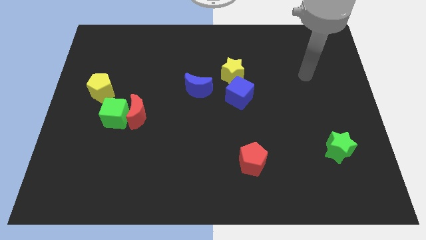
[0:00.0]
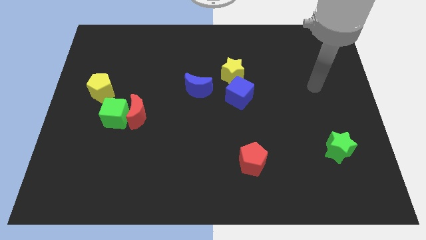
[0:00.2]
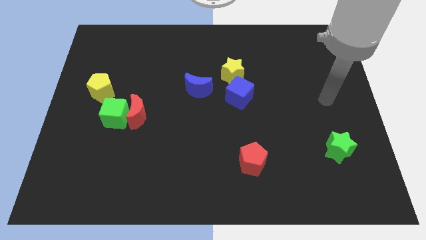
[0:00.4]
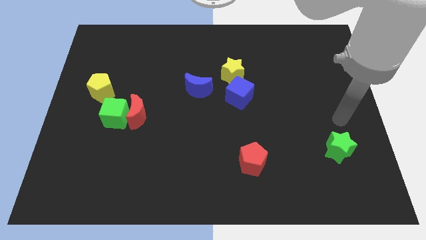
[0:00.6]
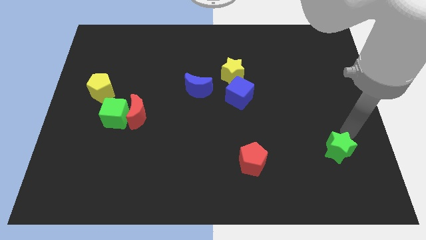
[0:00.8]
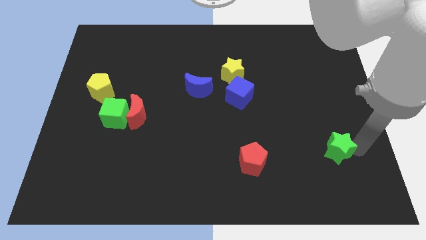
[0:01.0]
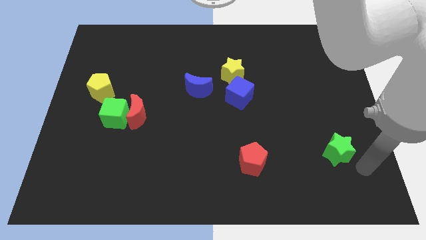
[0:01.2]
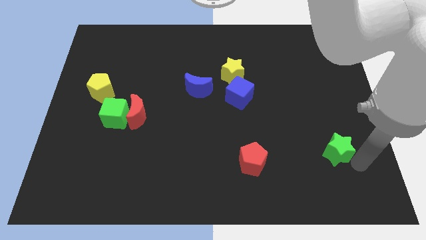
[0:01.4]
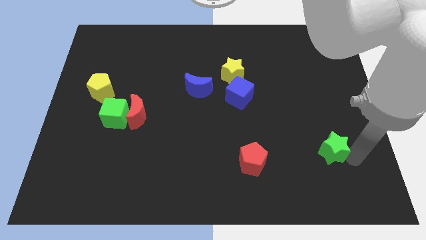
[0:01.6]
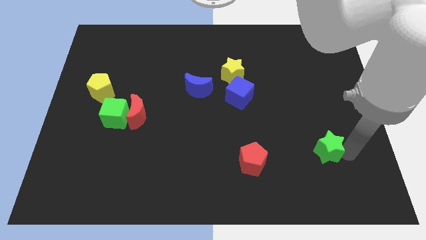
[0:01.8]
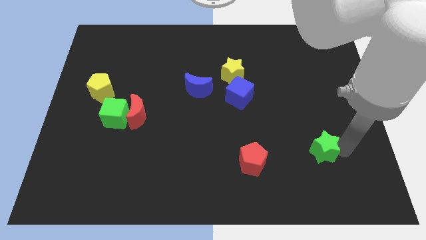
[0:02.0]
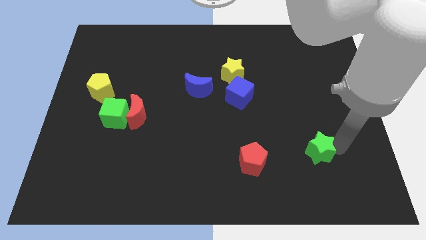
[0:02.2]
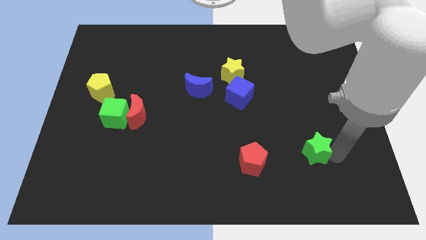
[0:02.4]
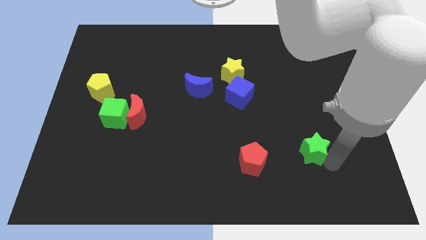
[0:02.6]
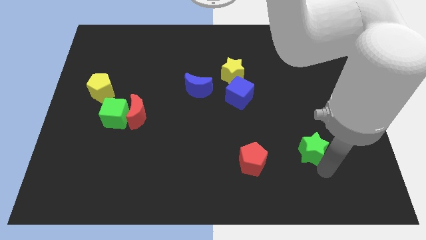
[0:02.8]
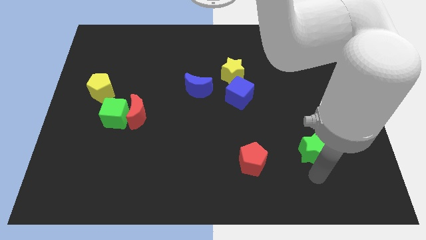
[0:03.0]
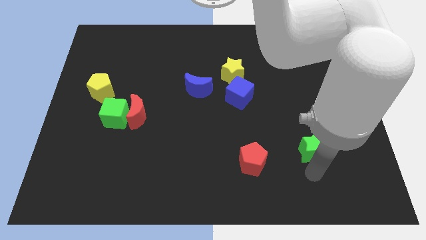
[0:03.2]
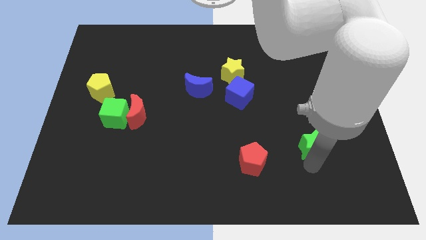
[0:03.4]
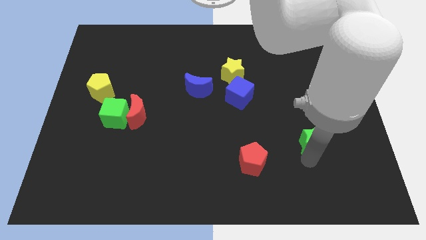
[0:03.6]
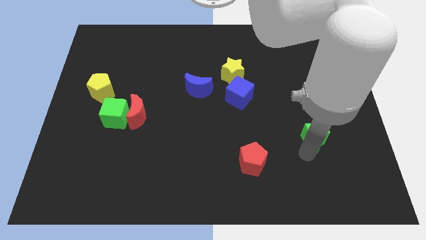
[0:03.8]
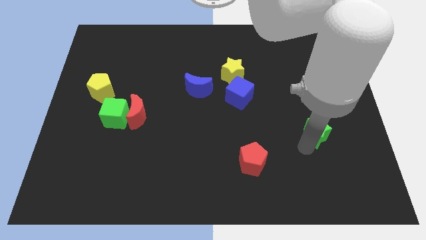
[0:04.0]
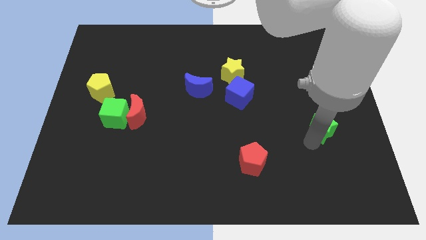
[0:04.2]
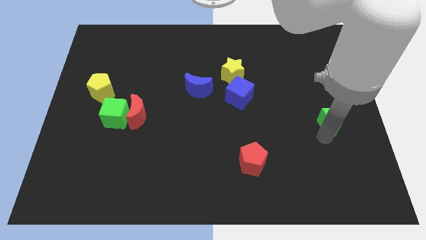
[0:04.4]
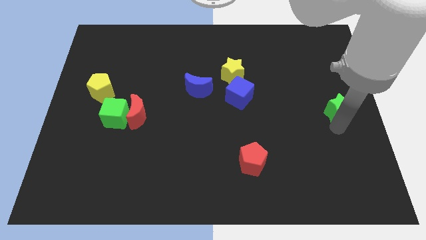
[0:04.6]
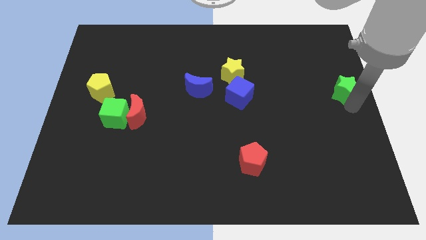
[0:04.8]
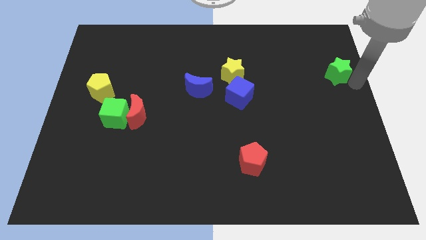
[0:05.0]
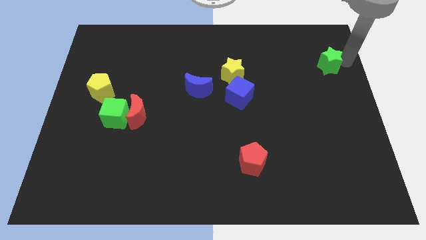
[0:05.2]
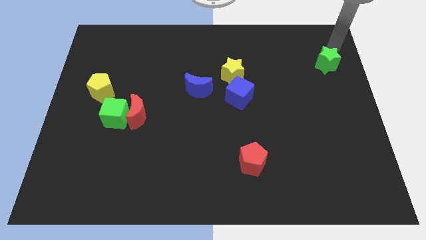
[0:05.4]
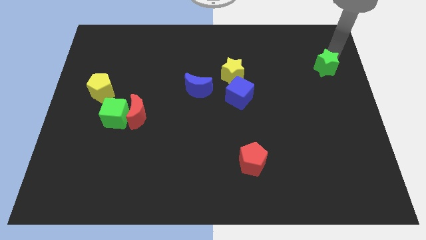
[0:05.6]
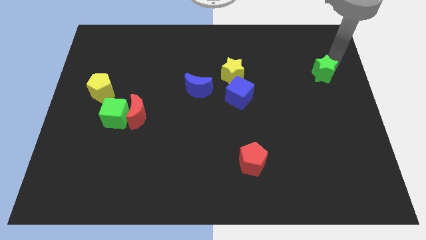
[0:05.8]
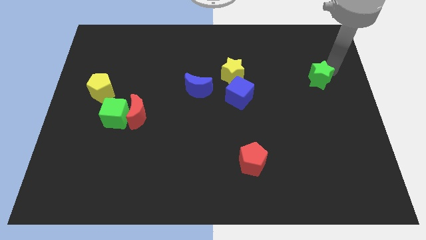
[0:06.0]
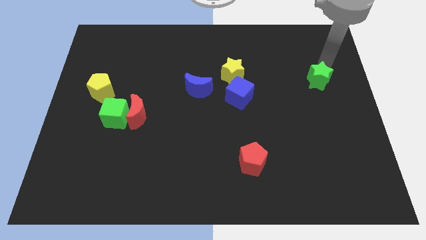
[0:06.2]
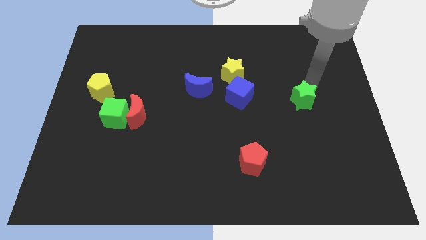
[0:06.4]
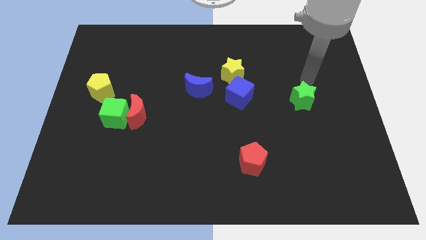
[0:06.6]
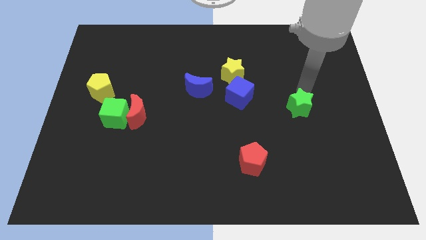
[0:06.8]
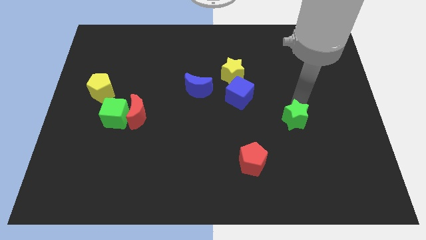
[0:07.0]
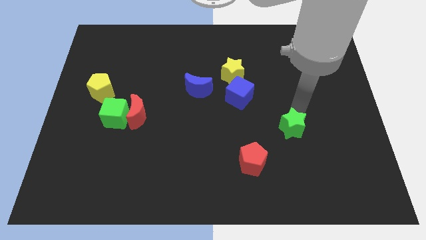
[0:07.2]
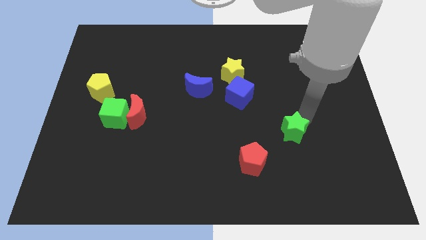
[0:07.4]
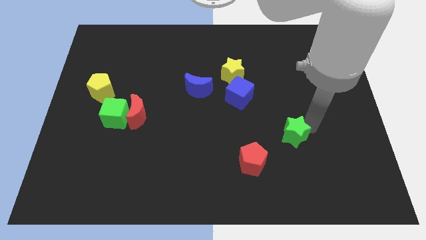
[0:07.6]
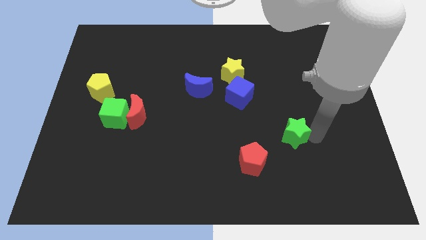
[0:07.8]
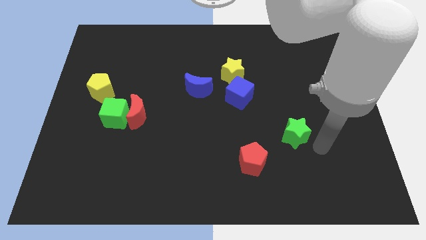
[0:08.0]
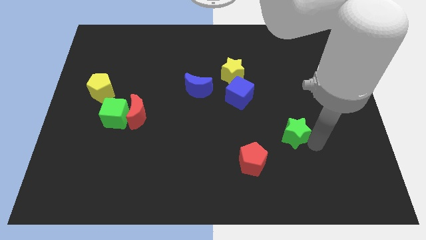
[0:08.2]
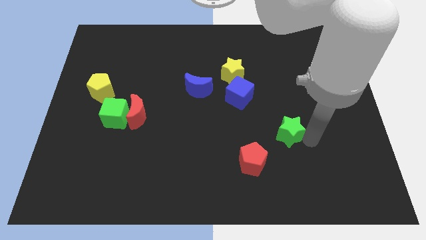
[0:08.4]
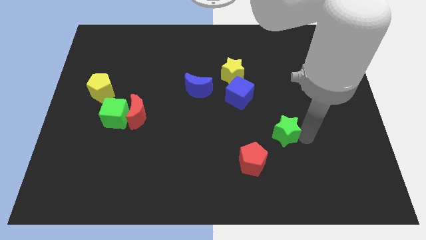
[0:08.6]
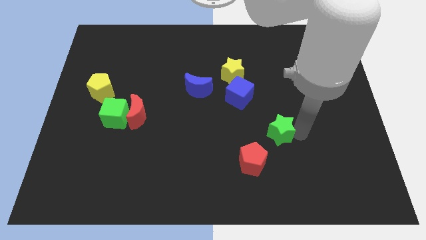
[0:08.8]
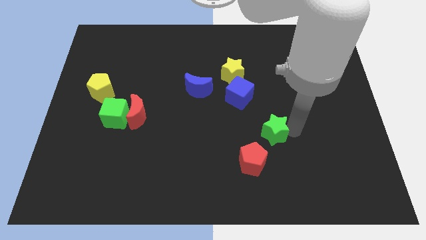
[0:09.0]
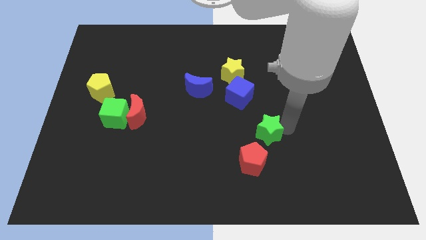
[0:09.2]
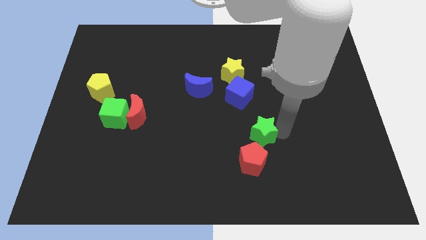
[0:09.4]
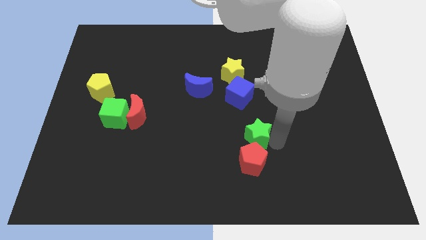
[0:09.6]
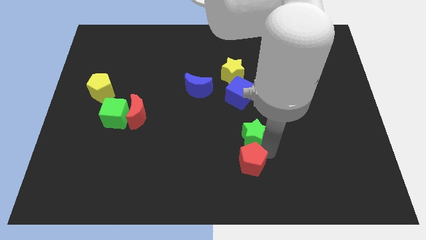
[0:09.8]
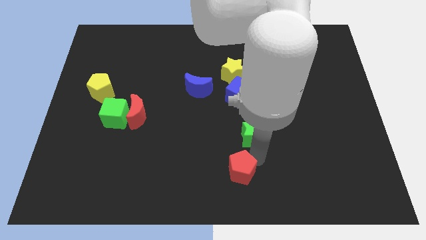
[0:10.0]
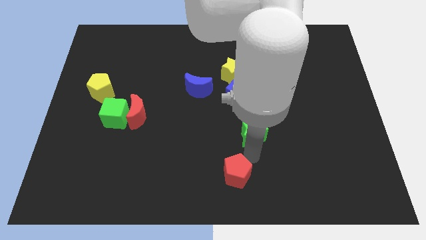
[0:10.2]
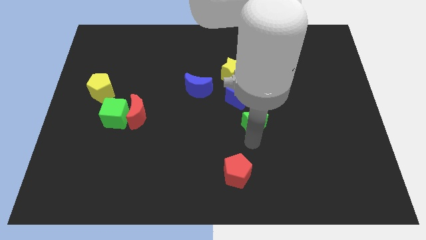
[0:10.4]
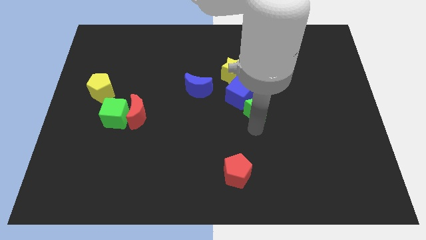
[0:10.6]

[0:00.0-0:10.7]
move the green star towards the blue cube

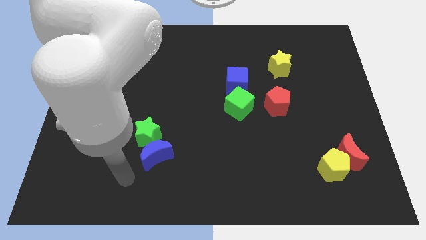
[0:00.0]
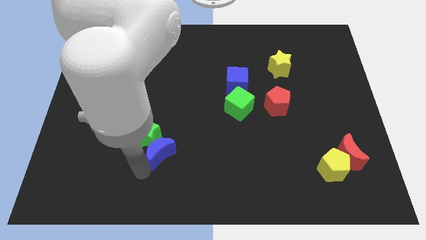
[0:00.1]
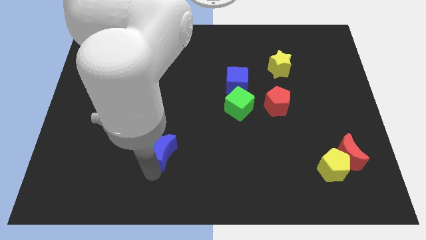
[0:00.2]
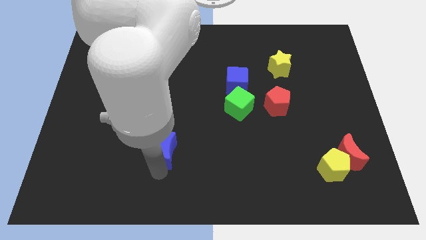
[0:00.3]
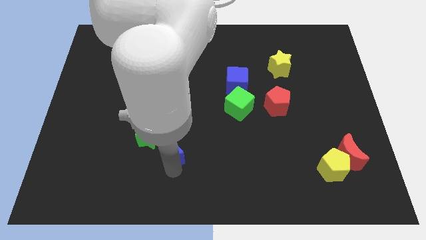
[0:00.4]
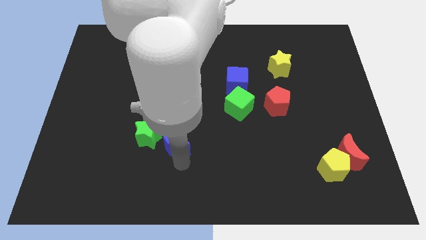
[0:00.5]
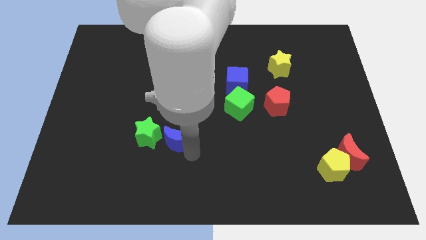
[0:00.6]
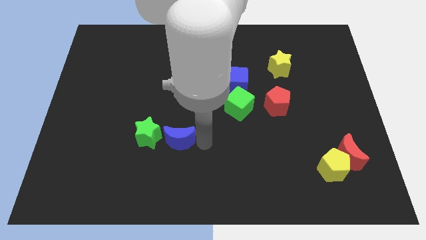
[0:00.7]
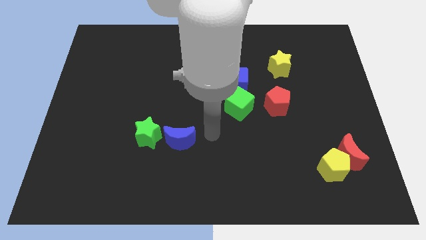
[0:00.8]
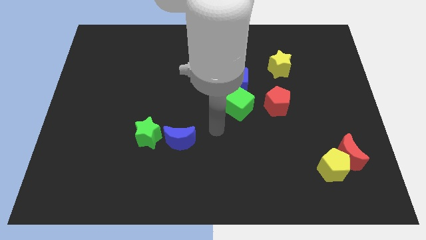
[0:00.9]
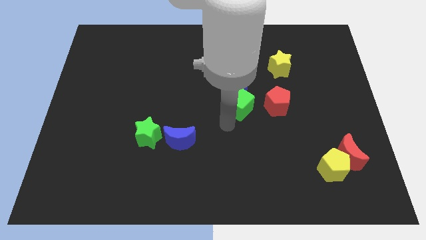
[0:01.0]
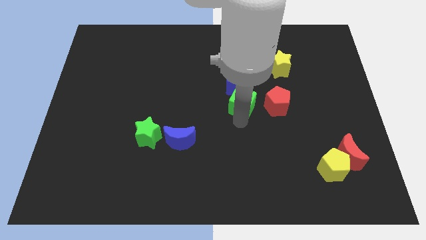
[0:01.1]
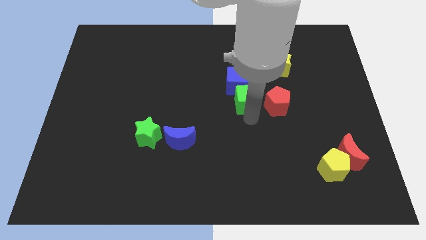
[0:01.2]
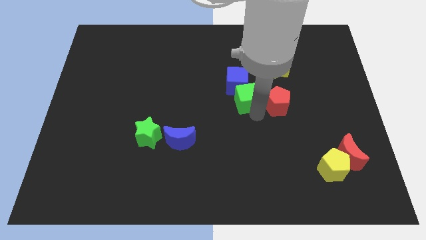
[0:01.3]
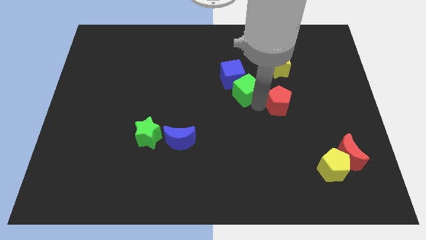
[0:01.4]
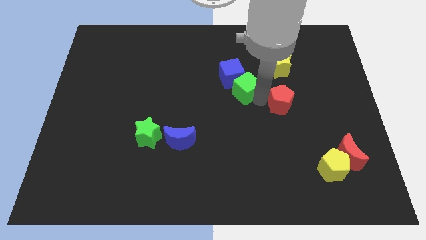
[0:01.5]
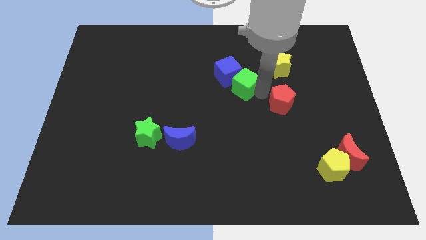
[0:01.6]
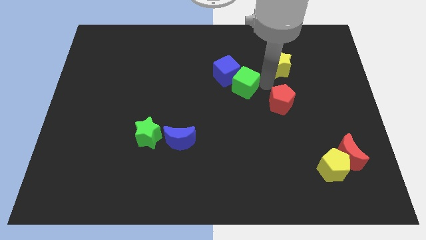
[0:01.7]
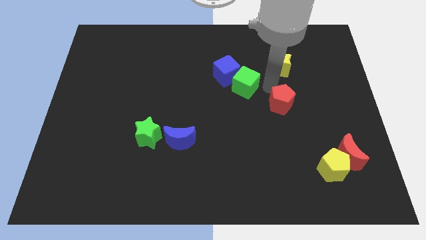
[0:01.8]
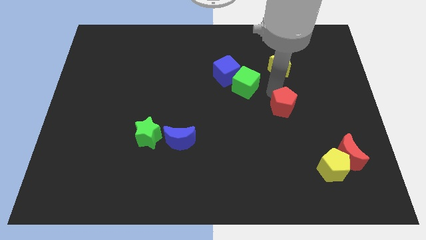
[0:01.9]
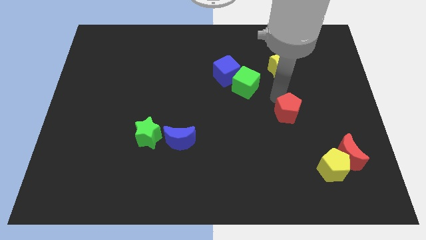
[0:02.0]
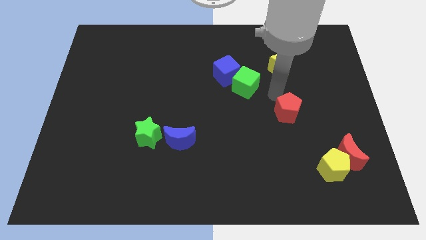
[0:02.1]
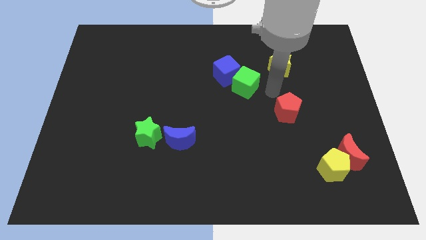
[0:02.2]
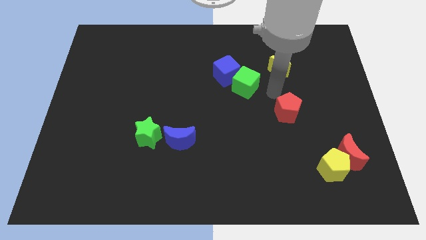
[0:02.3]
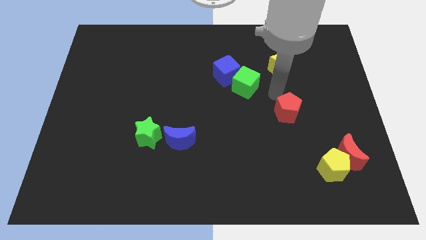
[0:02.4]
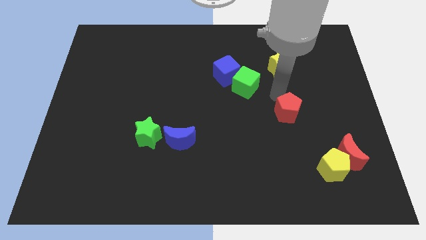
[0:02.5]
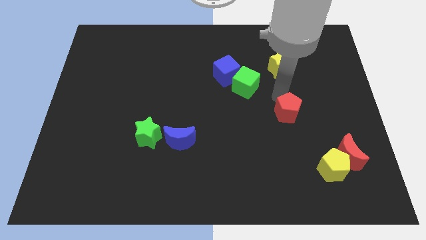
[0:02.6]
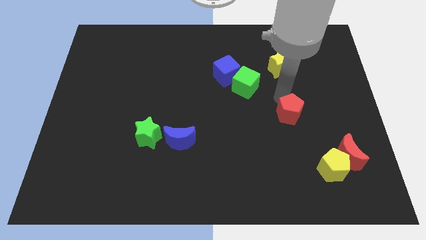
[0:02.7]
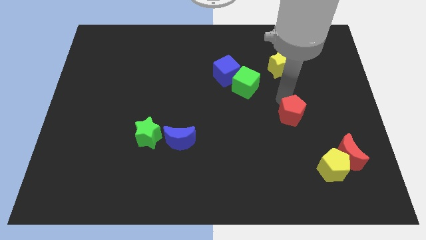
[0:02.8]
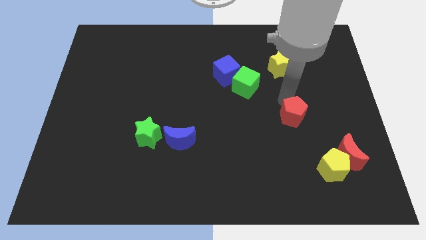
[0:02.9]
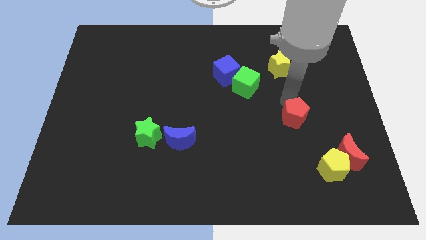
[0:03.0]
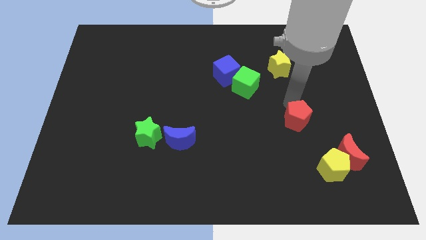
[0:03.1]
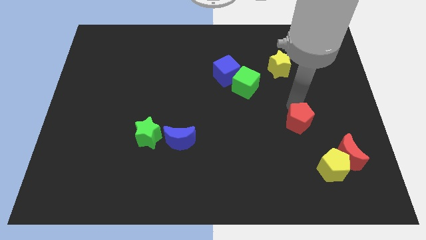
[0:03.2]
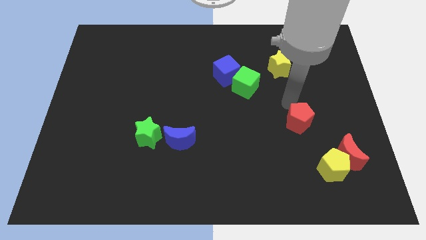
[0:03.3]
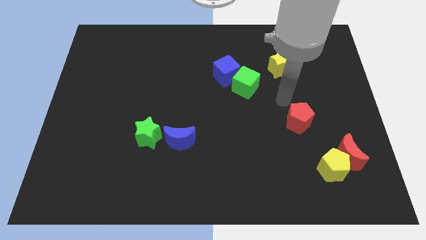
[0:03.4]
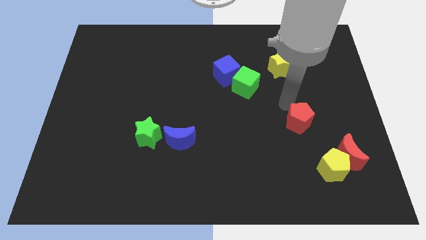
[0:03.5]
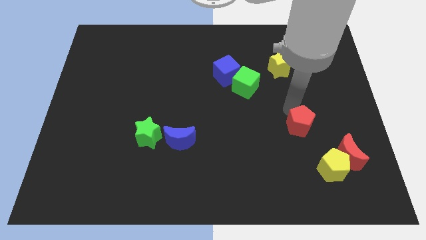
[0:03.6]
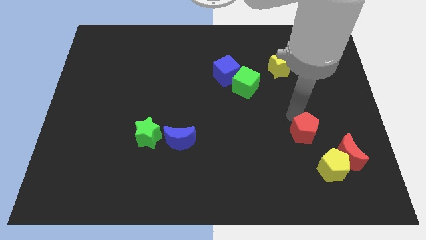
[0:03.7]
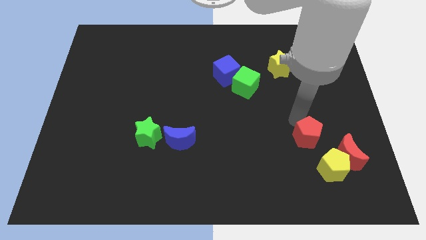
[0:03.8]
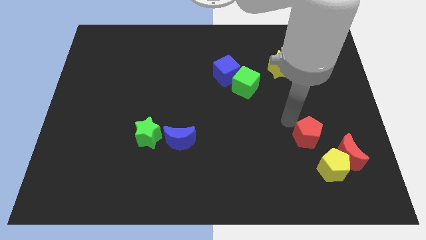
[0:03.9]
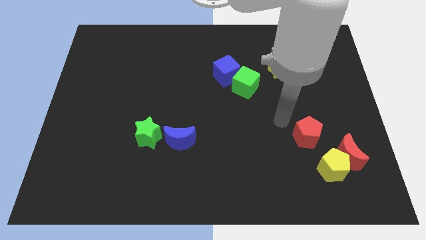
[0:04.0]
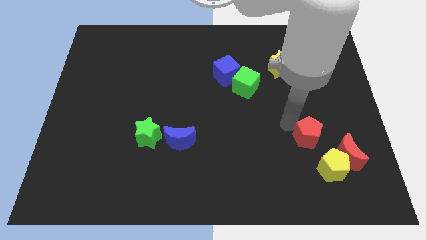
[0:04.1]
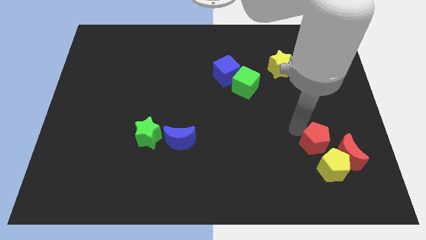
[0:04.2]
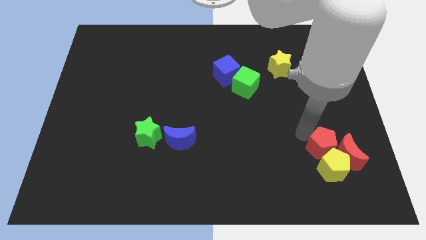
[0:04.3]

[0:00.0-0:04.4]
put the red pentagon towards the red moon
